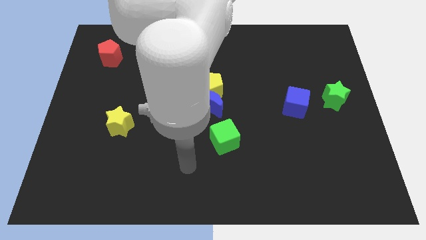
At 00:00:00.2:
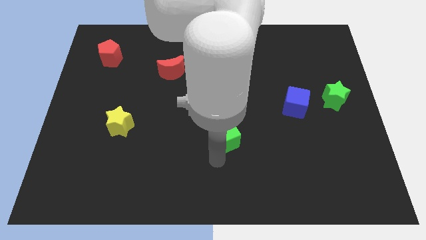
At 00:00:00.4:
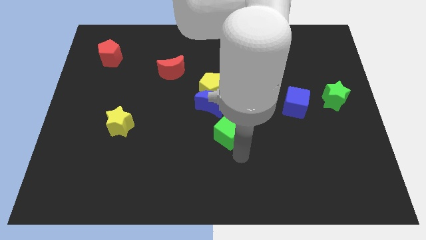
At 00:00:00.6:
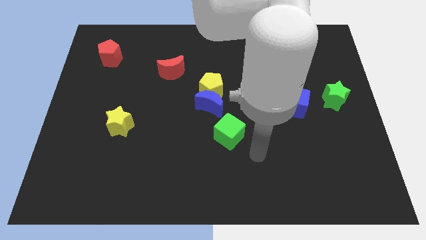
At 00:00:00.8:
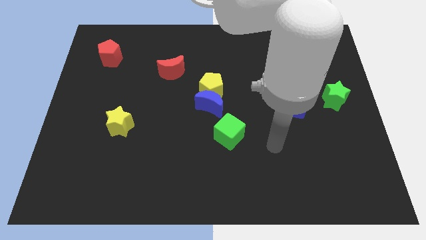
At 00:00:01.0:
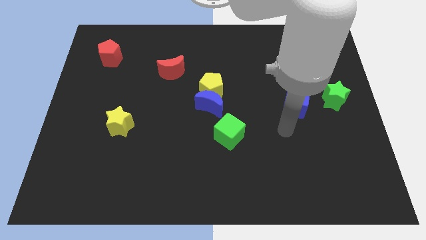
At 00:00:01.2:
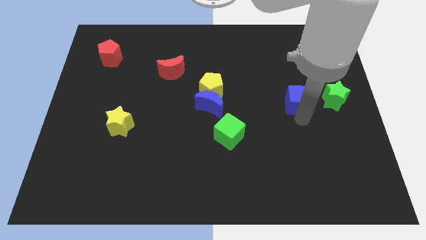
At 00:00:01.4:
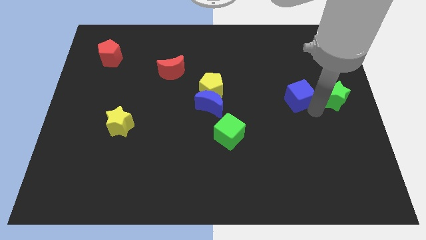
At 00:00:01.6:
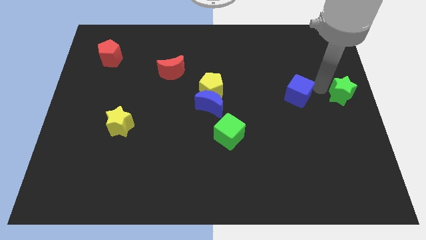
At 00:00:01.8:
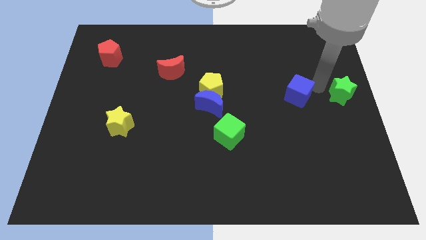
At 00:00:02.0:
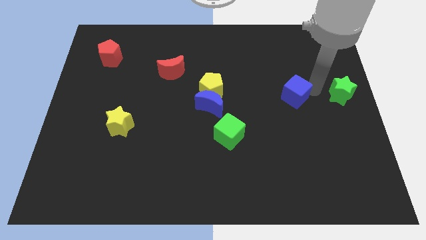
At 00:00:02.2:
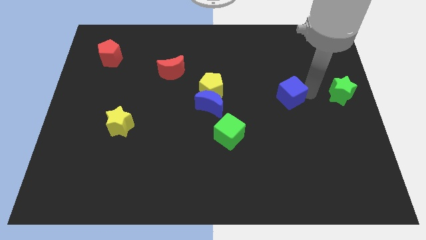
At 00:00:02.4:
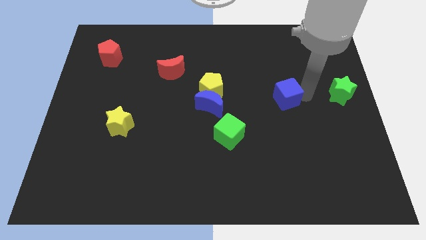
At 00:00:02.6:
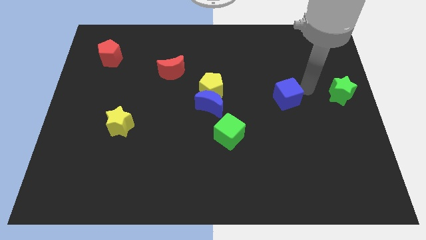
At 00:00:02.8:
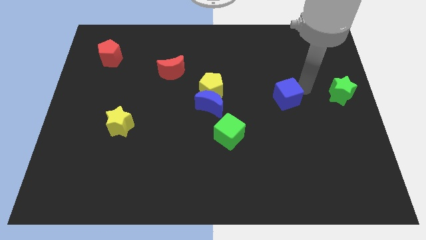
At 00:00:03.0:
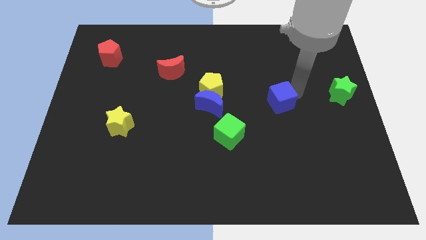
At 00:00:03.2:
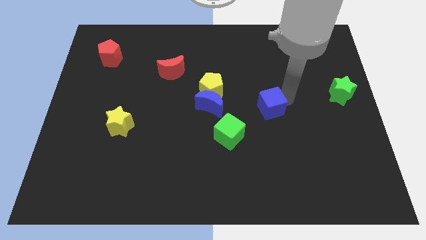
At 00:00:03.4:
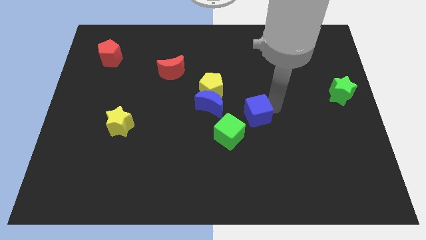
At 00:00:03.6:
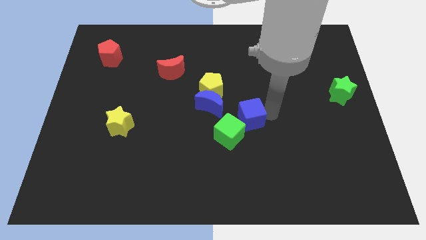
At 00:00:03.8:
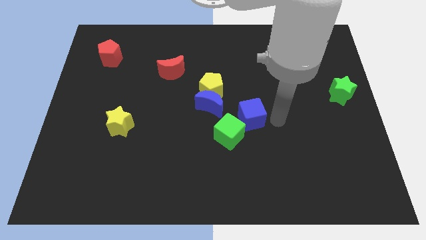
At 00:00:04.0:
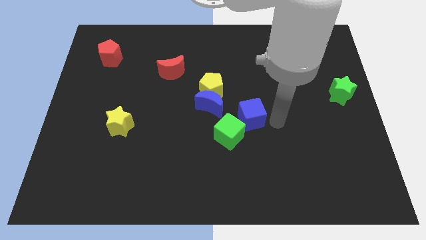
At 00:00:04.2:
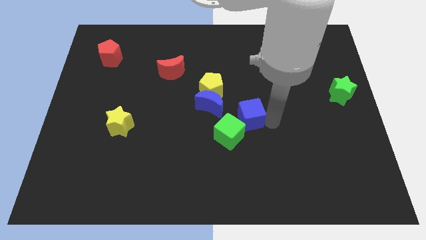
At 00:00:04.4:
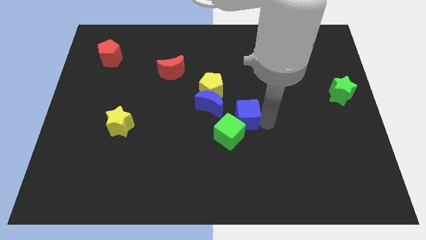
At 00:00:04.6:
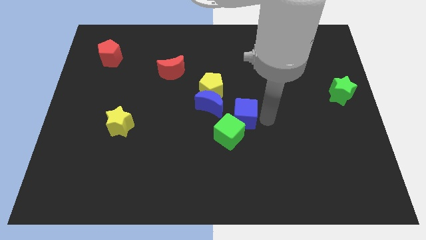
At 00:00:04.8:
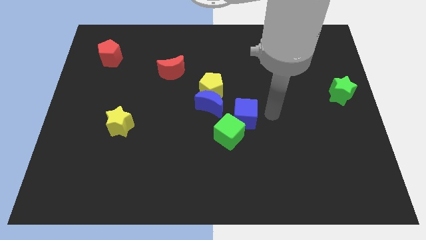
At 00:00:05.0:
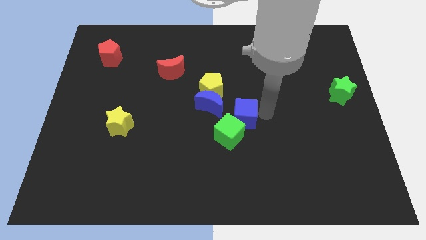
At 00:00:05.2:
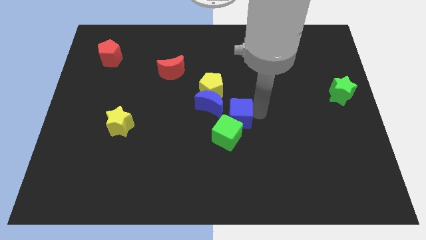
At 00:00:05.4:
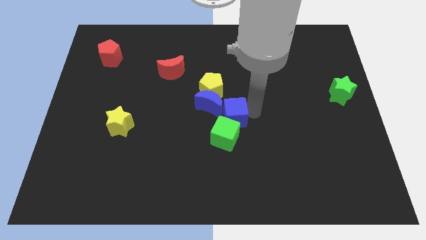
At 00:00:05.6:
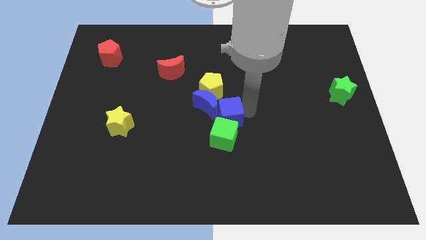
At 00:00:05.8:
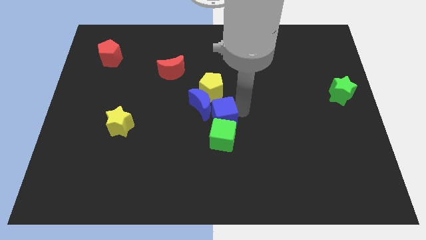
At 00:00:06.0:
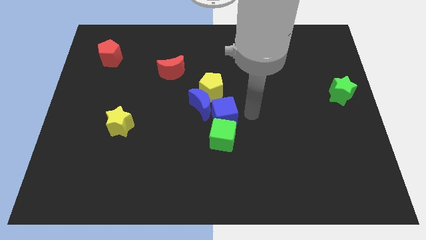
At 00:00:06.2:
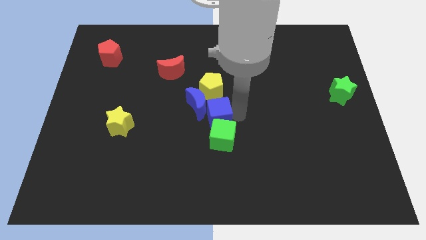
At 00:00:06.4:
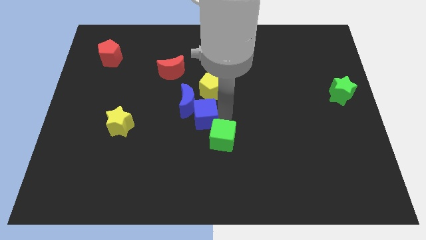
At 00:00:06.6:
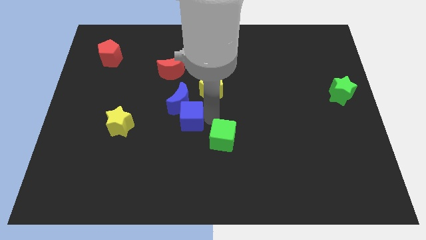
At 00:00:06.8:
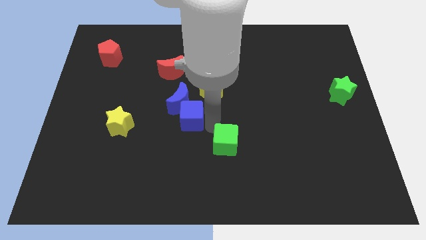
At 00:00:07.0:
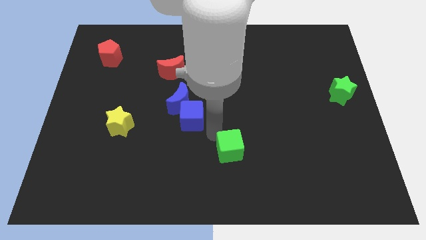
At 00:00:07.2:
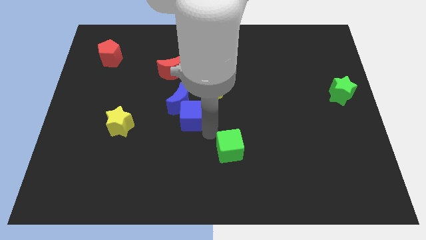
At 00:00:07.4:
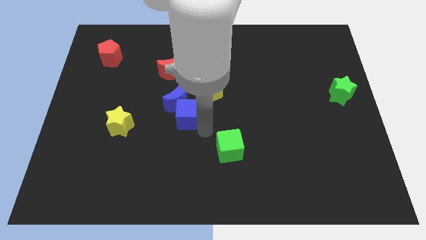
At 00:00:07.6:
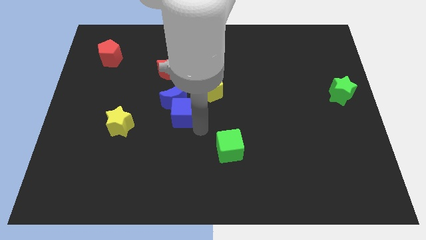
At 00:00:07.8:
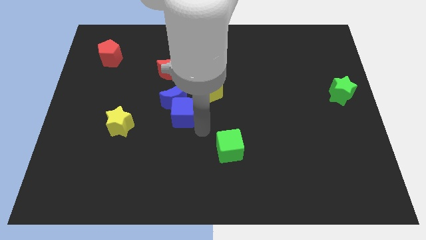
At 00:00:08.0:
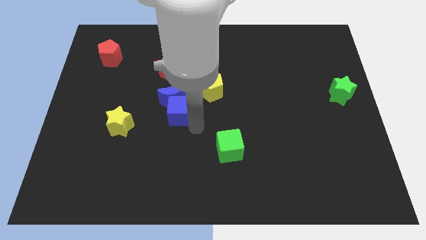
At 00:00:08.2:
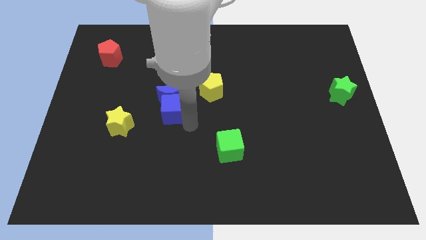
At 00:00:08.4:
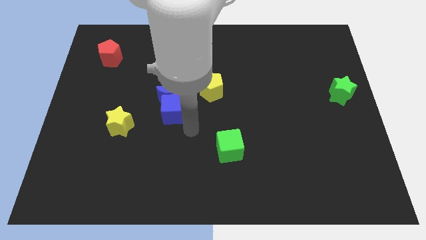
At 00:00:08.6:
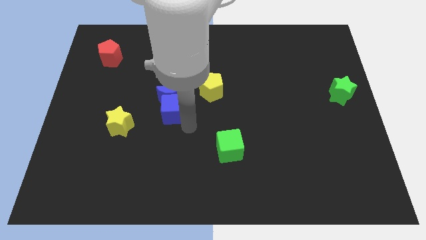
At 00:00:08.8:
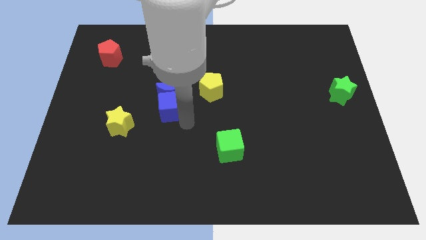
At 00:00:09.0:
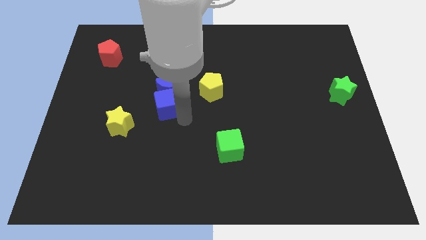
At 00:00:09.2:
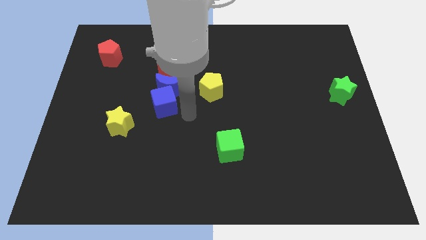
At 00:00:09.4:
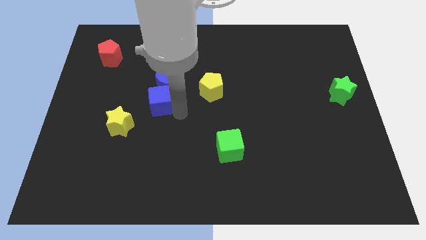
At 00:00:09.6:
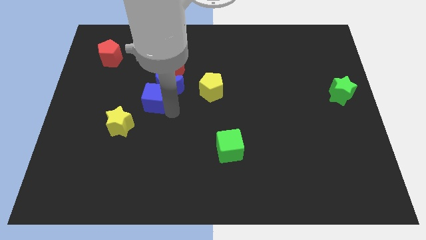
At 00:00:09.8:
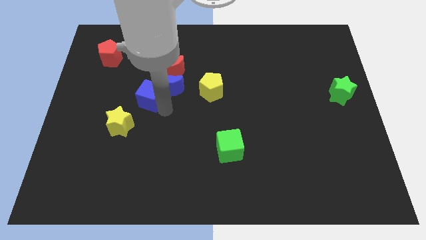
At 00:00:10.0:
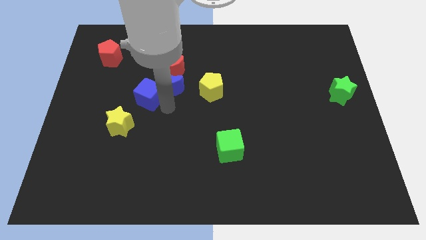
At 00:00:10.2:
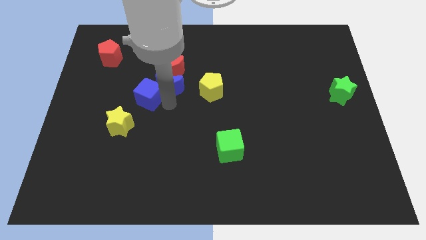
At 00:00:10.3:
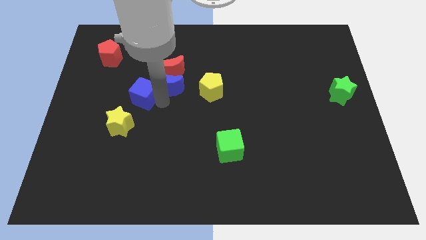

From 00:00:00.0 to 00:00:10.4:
slide the blue cube above the yellow star

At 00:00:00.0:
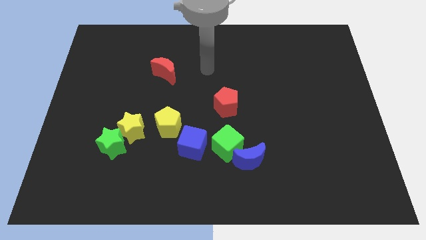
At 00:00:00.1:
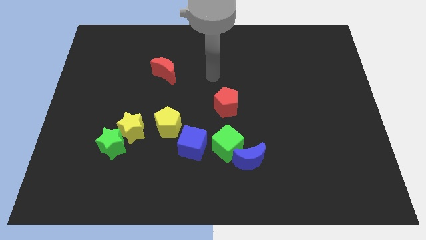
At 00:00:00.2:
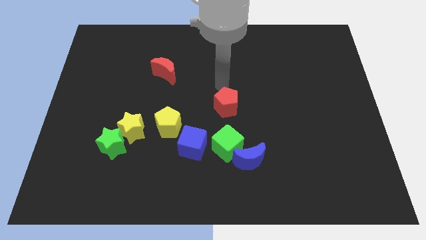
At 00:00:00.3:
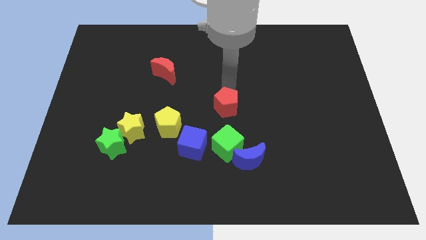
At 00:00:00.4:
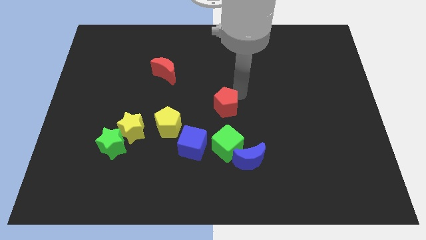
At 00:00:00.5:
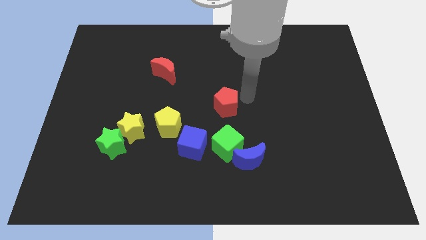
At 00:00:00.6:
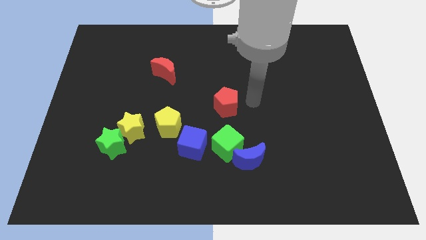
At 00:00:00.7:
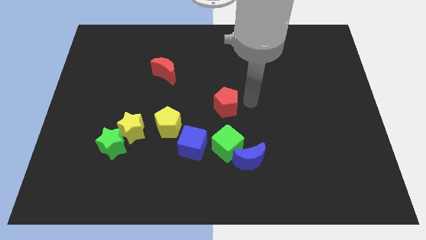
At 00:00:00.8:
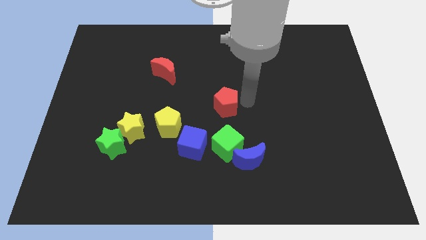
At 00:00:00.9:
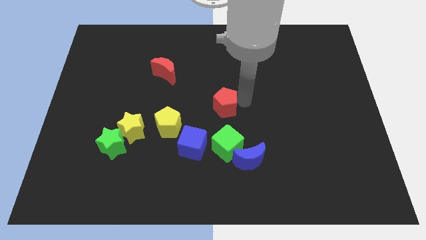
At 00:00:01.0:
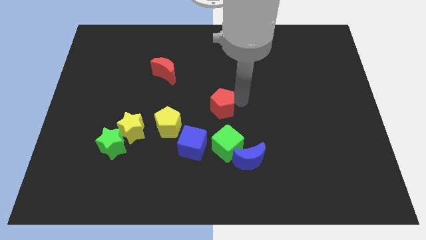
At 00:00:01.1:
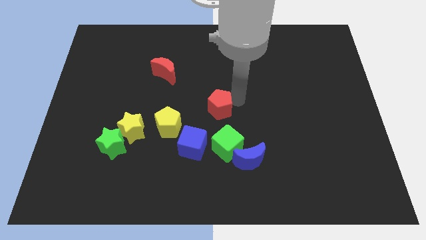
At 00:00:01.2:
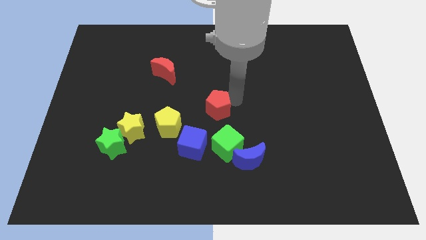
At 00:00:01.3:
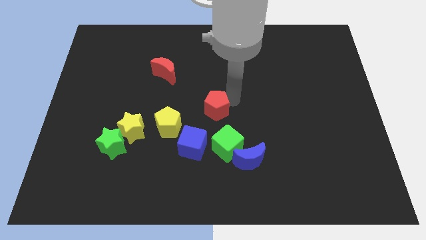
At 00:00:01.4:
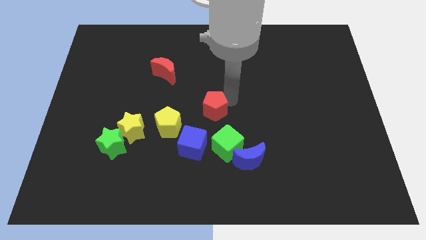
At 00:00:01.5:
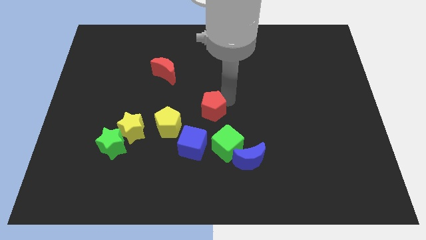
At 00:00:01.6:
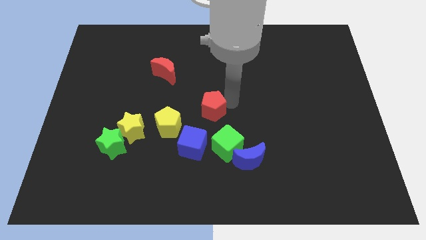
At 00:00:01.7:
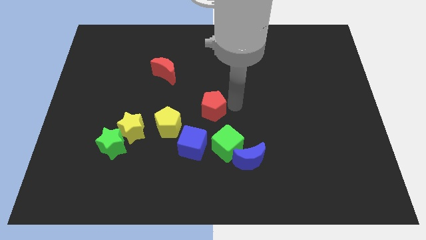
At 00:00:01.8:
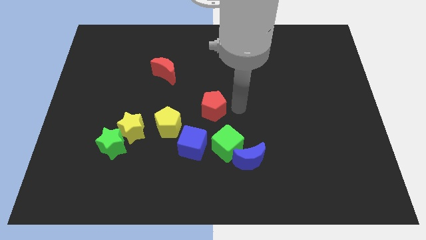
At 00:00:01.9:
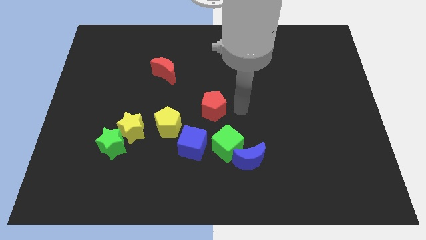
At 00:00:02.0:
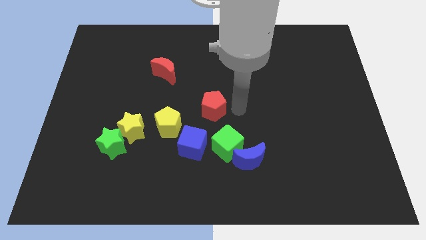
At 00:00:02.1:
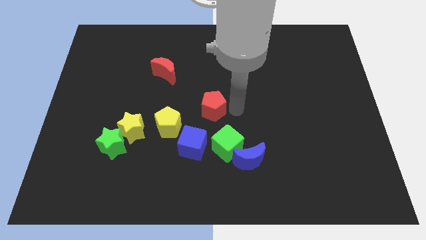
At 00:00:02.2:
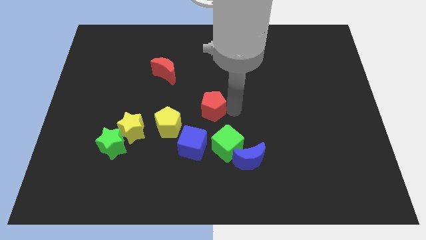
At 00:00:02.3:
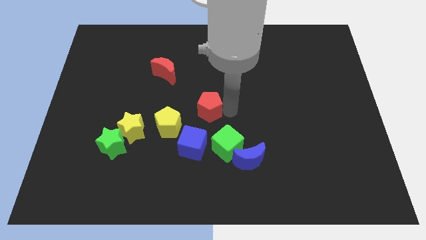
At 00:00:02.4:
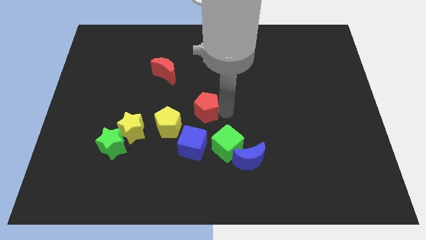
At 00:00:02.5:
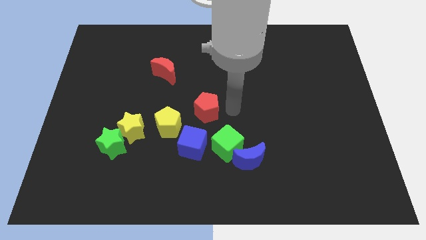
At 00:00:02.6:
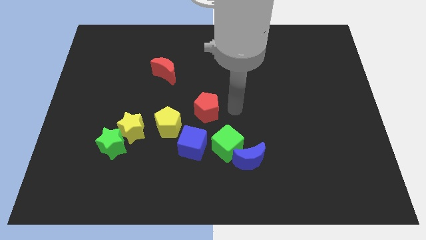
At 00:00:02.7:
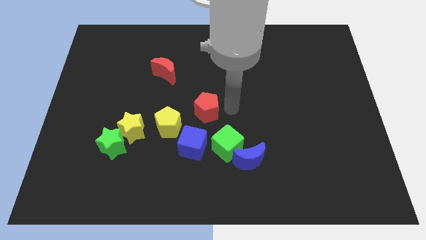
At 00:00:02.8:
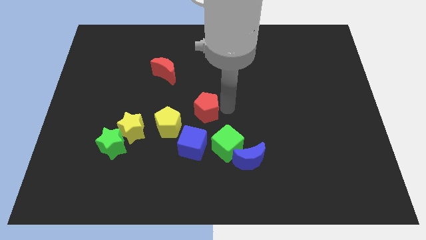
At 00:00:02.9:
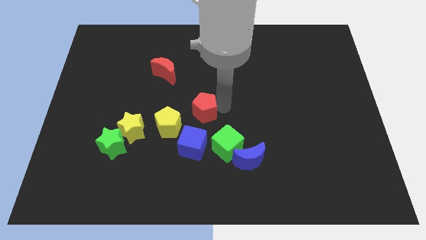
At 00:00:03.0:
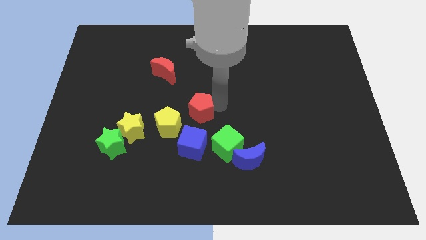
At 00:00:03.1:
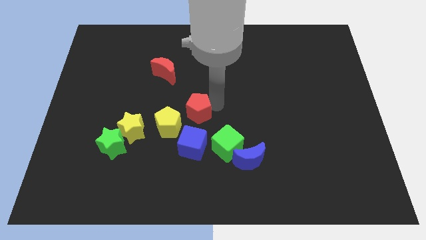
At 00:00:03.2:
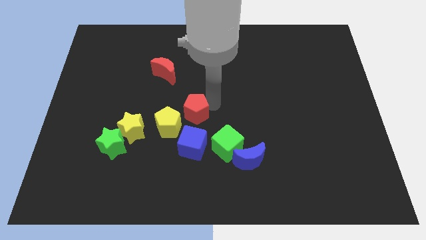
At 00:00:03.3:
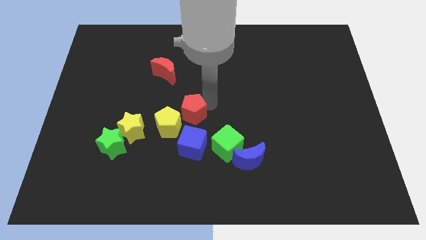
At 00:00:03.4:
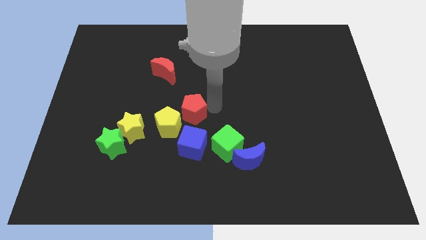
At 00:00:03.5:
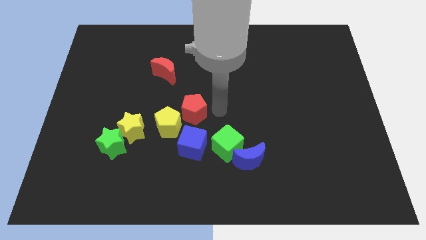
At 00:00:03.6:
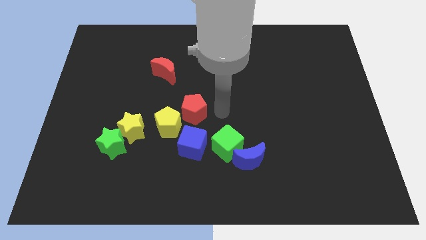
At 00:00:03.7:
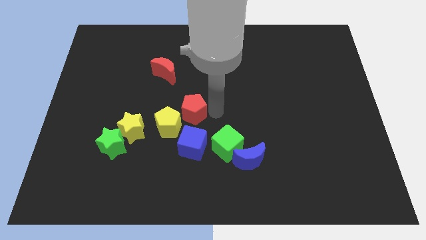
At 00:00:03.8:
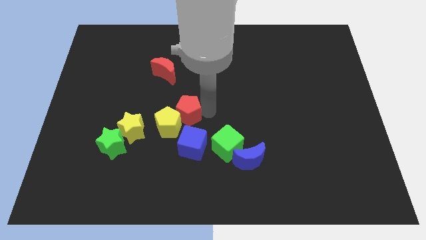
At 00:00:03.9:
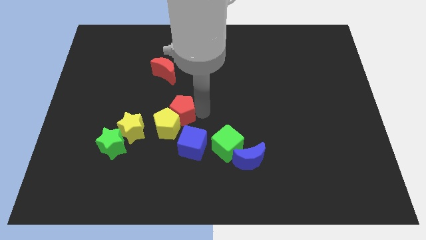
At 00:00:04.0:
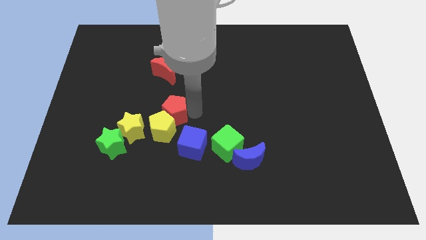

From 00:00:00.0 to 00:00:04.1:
move the red pentagon to the top right side of the yellow star
